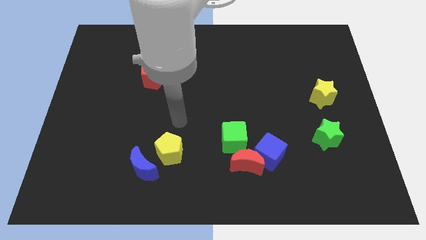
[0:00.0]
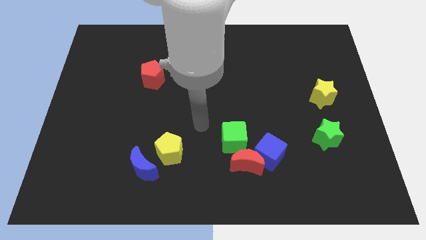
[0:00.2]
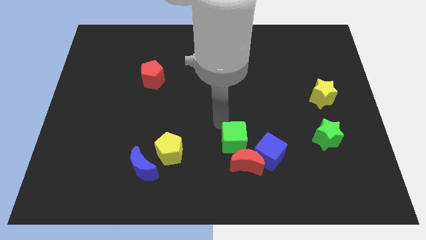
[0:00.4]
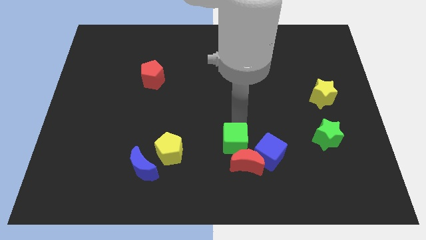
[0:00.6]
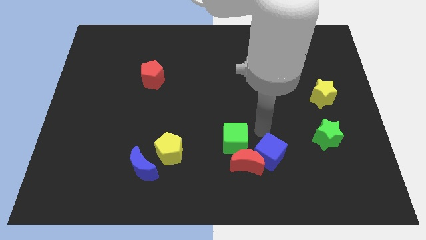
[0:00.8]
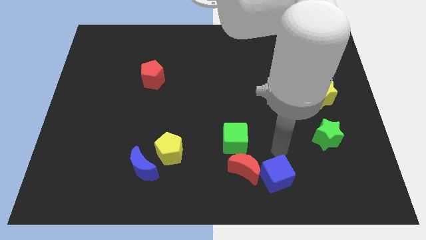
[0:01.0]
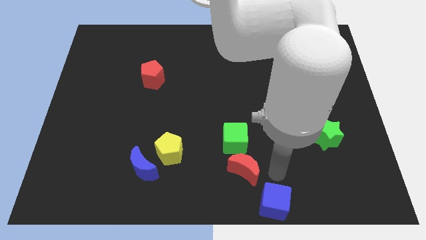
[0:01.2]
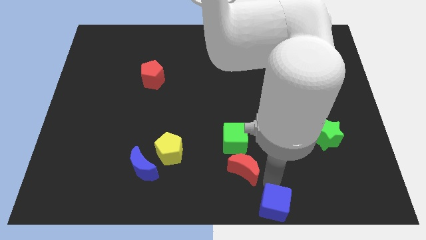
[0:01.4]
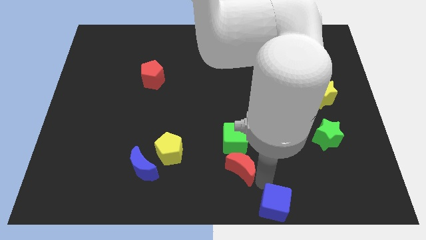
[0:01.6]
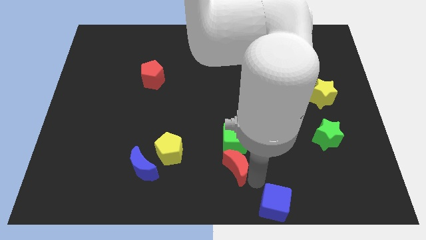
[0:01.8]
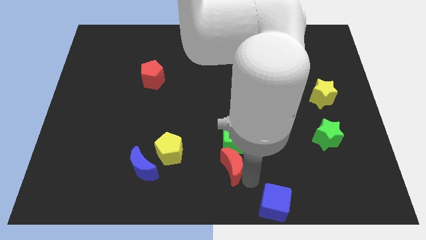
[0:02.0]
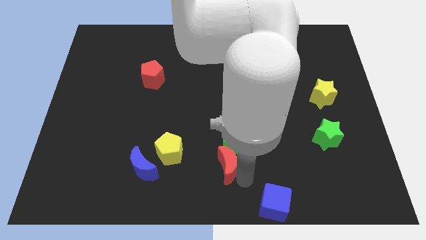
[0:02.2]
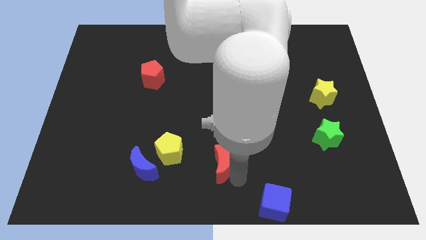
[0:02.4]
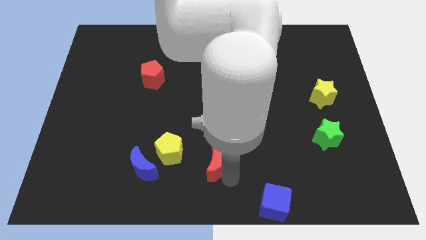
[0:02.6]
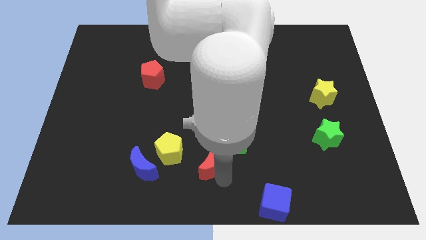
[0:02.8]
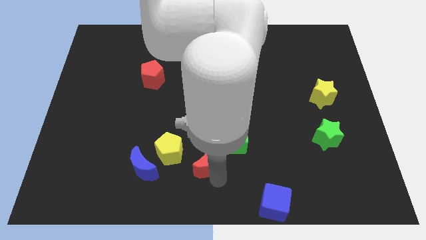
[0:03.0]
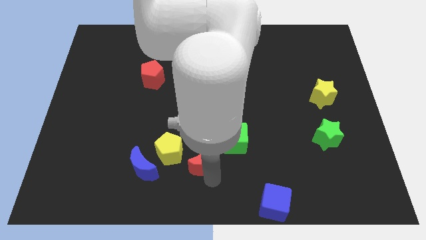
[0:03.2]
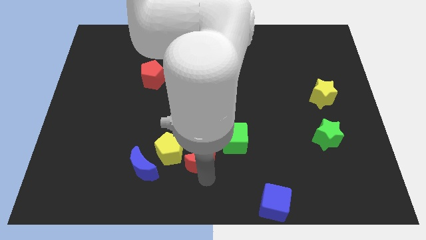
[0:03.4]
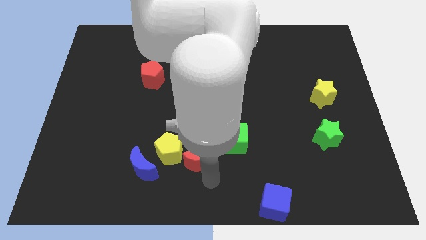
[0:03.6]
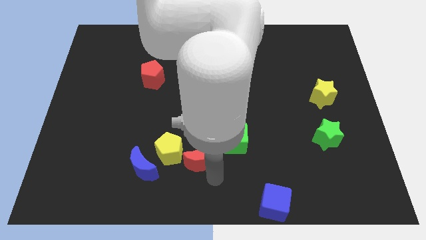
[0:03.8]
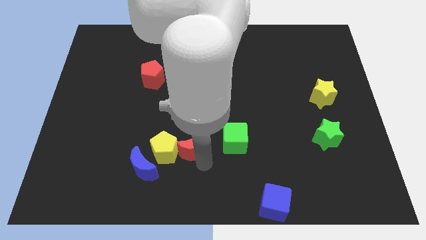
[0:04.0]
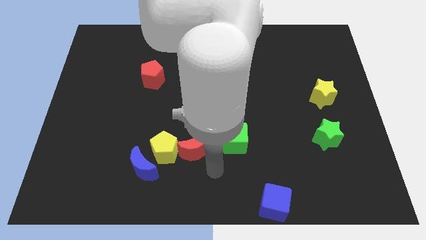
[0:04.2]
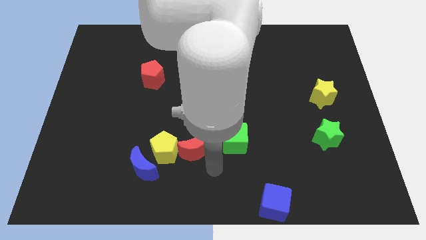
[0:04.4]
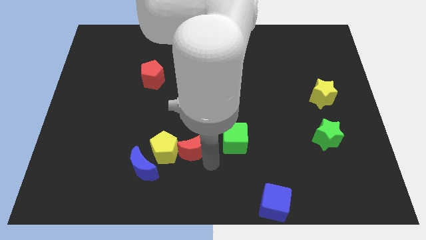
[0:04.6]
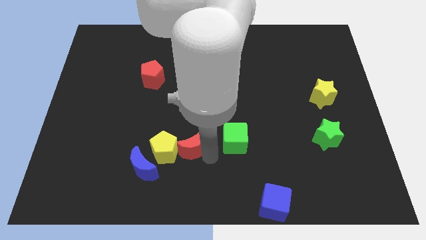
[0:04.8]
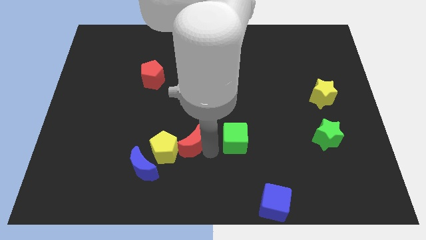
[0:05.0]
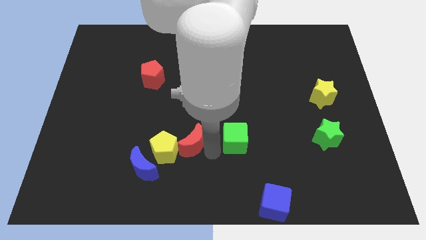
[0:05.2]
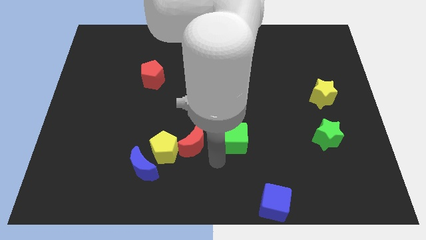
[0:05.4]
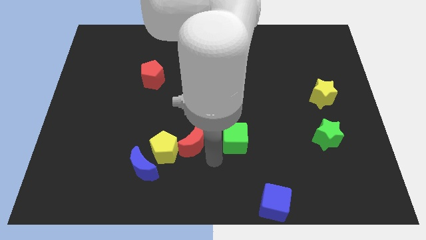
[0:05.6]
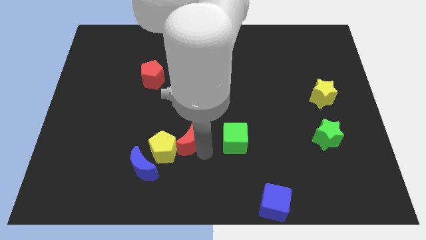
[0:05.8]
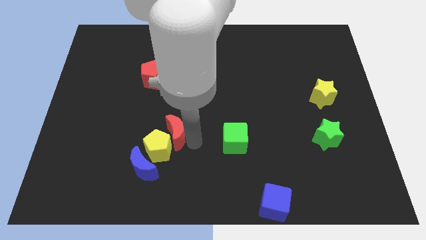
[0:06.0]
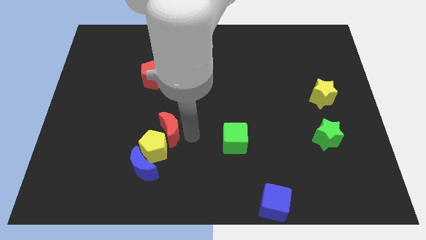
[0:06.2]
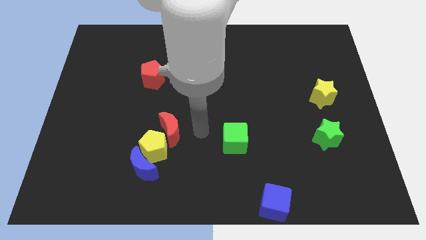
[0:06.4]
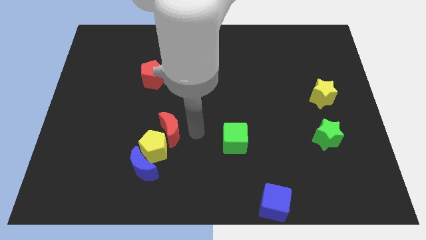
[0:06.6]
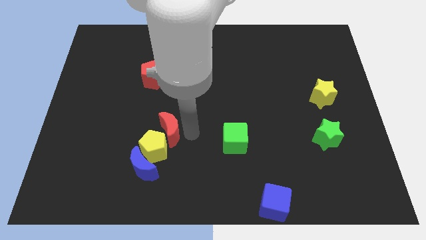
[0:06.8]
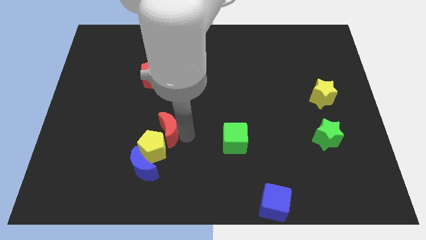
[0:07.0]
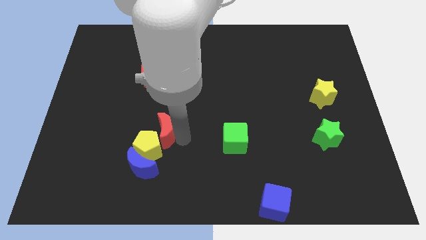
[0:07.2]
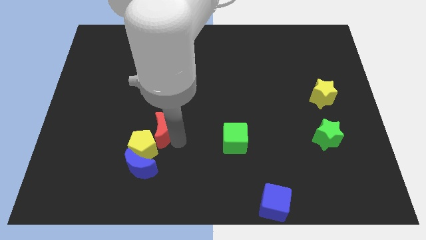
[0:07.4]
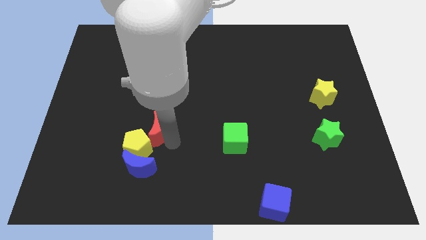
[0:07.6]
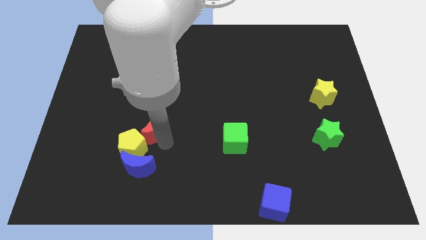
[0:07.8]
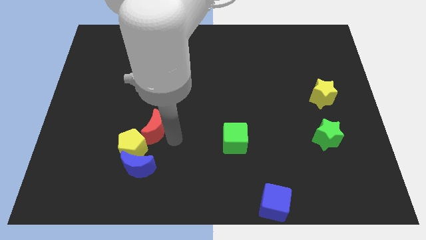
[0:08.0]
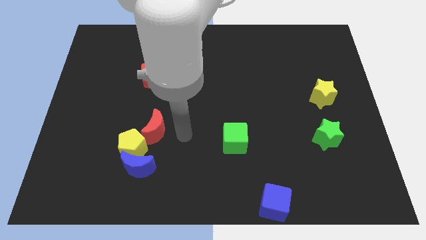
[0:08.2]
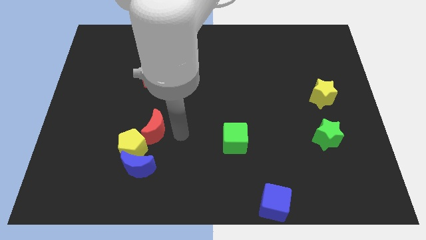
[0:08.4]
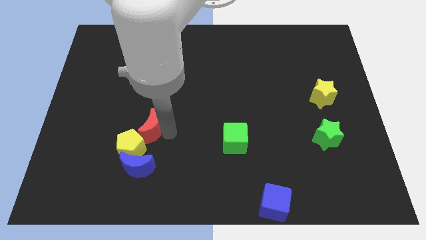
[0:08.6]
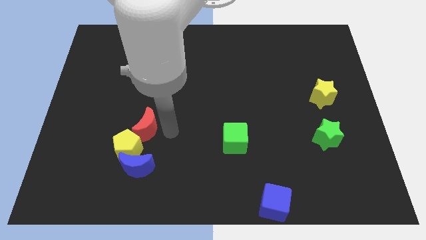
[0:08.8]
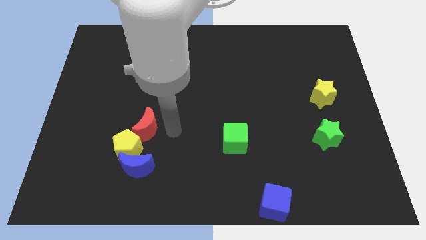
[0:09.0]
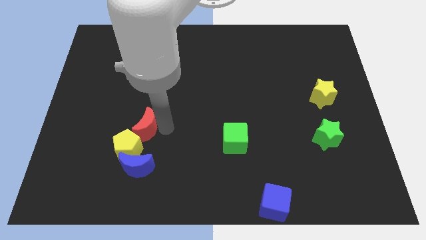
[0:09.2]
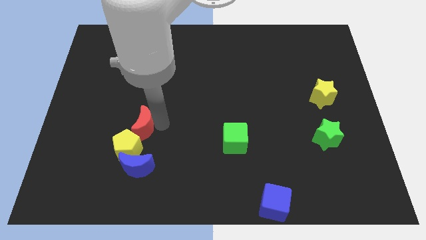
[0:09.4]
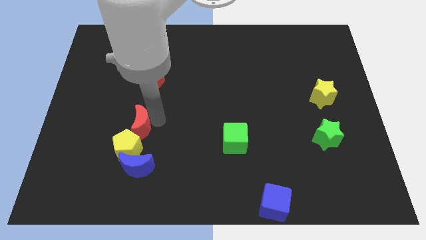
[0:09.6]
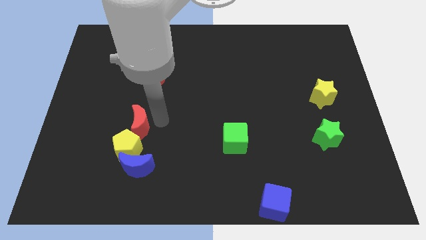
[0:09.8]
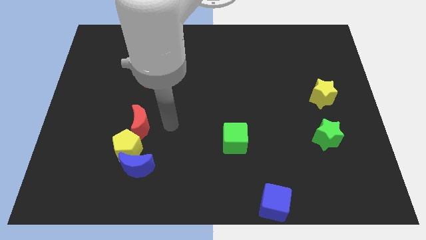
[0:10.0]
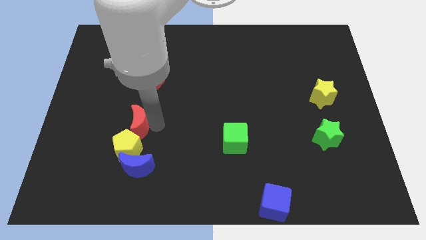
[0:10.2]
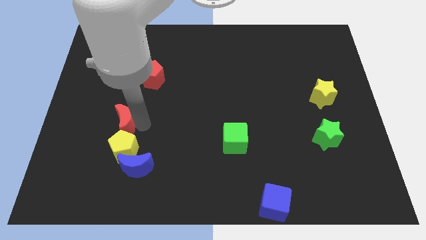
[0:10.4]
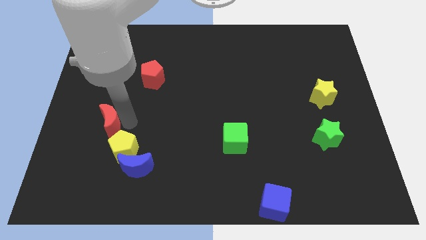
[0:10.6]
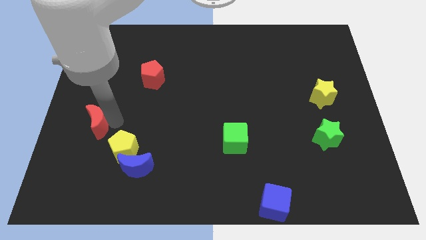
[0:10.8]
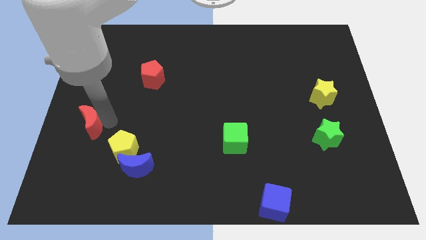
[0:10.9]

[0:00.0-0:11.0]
slide the red moon to the center left

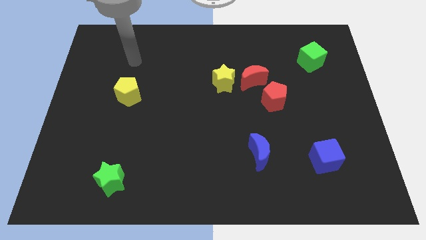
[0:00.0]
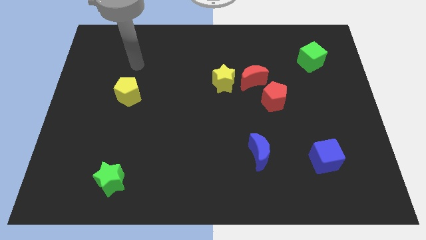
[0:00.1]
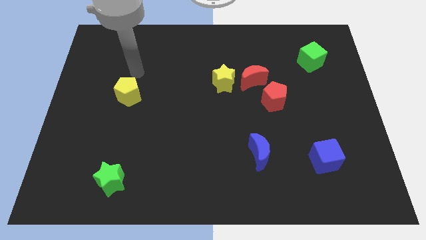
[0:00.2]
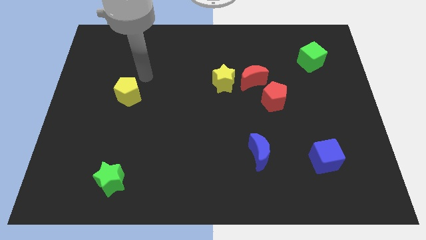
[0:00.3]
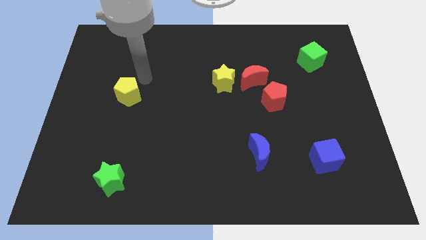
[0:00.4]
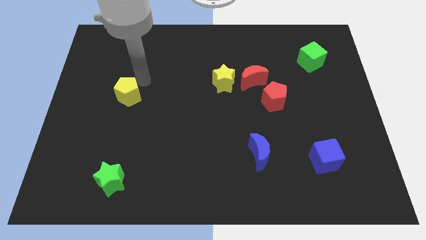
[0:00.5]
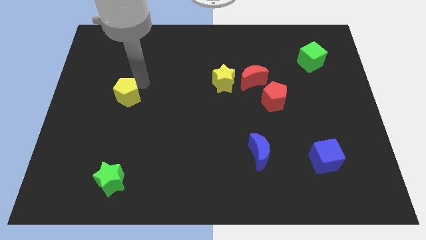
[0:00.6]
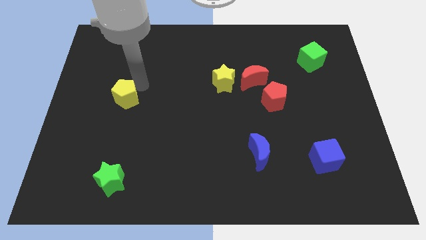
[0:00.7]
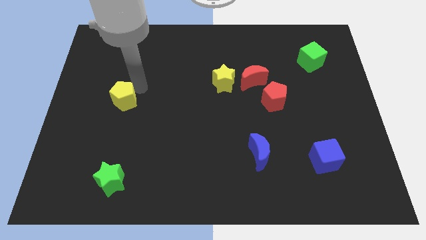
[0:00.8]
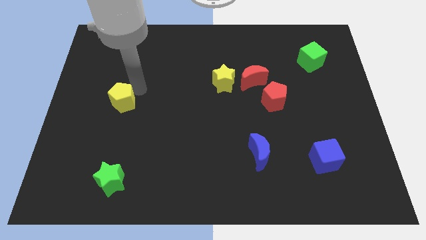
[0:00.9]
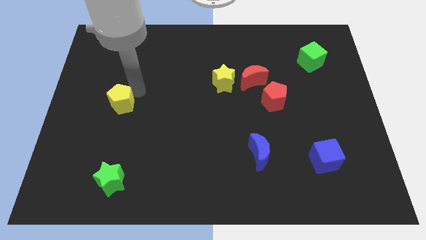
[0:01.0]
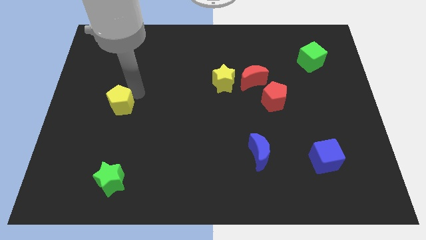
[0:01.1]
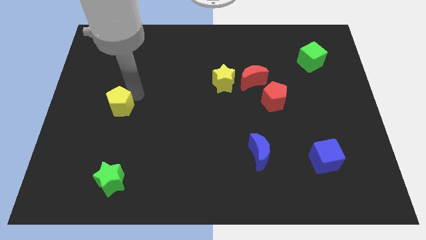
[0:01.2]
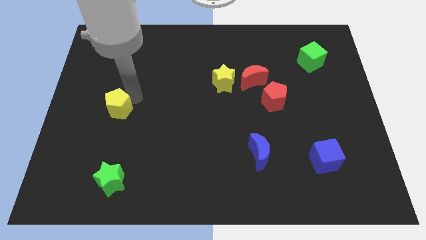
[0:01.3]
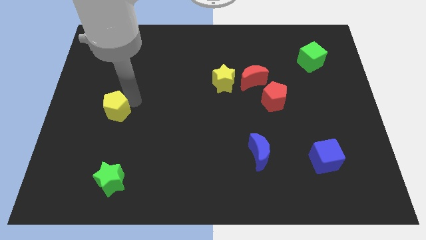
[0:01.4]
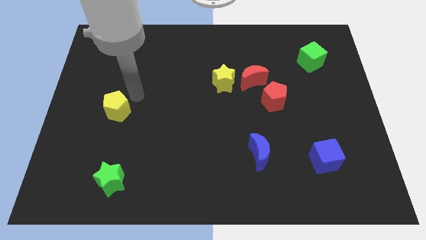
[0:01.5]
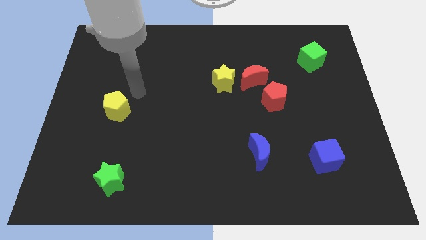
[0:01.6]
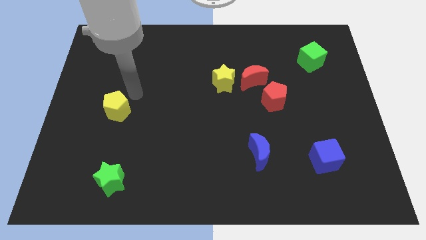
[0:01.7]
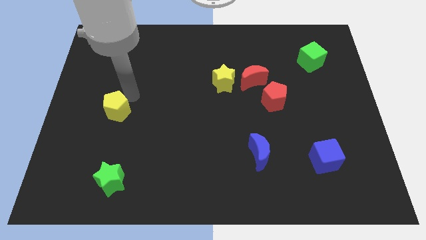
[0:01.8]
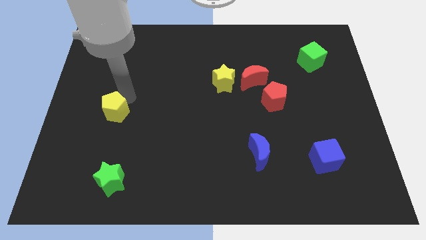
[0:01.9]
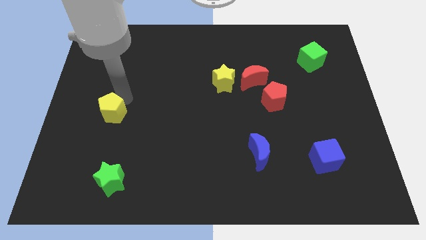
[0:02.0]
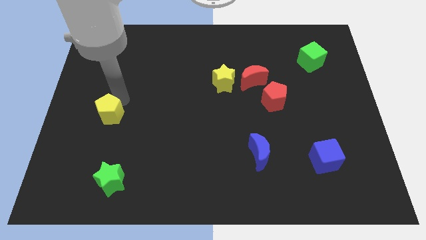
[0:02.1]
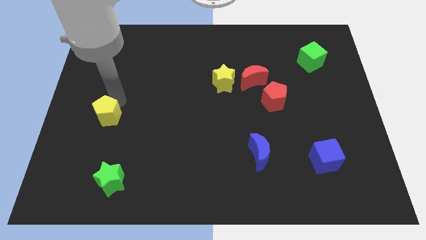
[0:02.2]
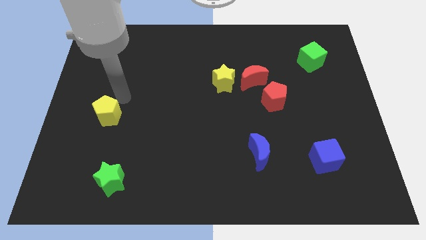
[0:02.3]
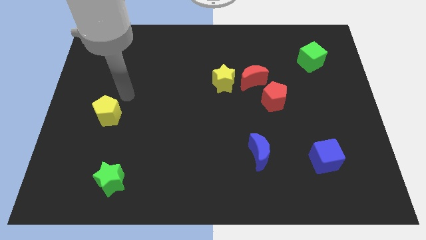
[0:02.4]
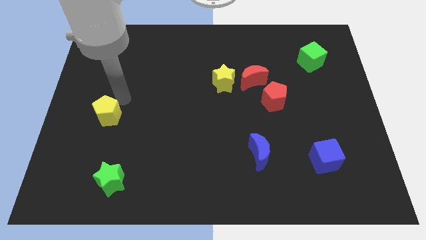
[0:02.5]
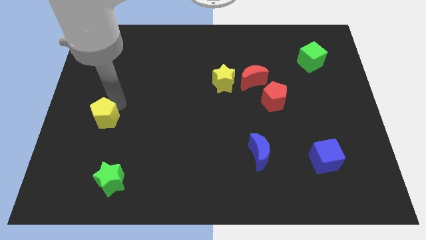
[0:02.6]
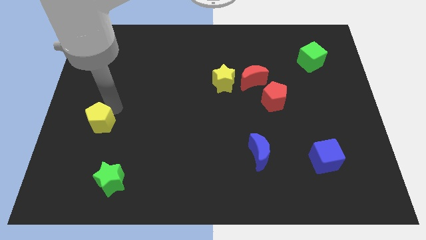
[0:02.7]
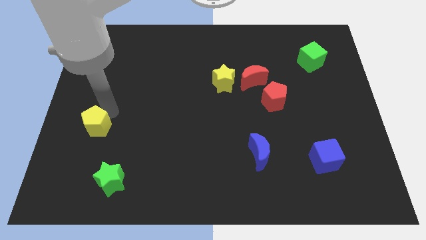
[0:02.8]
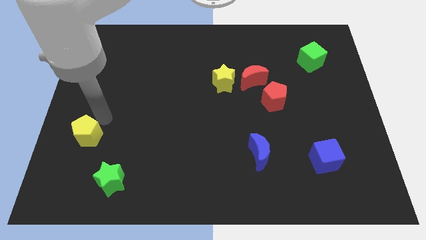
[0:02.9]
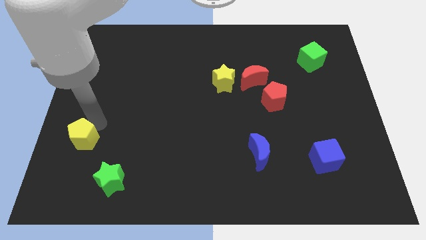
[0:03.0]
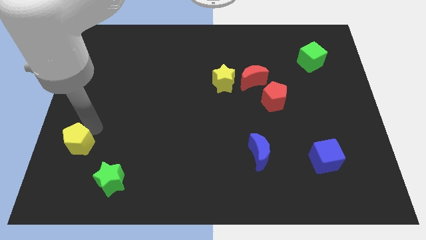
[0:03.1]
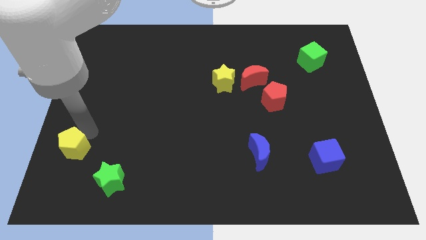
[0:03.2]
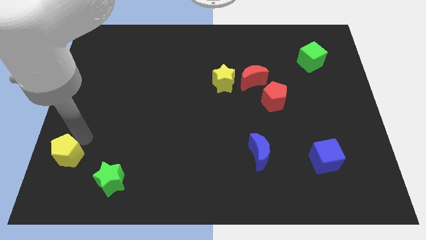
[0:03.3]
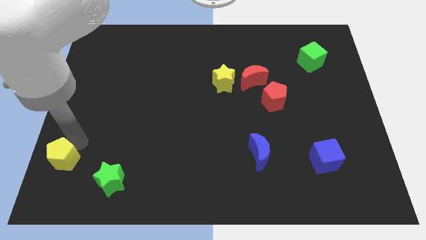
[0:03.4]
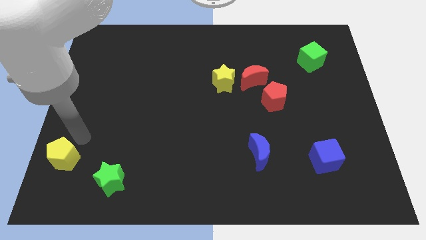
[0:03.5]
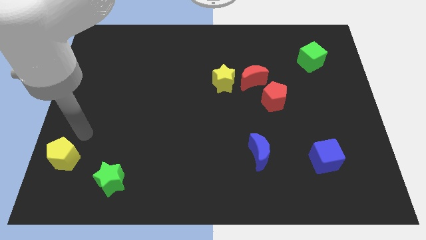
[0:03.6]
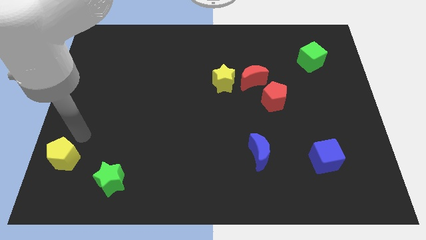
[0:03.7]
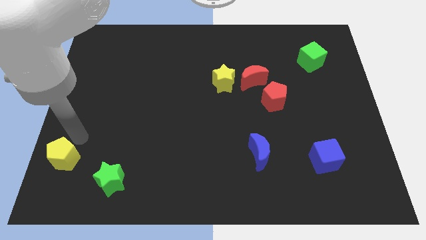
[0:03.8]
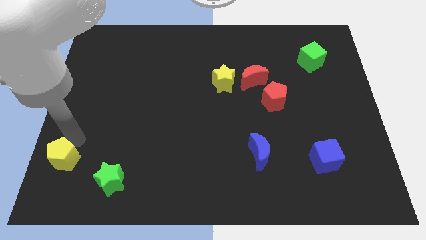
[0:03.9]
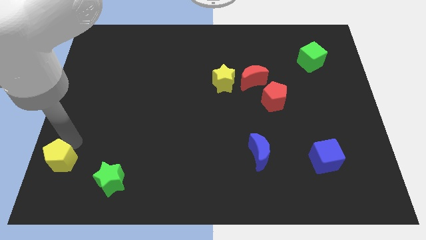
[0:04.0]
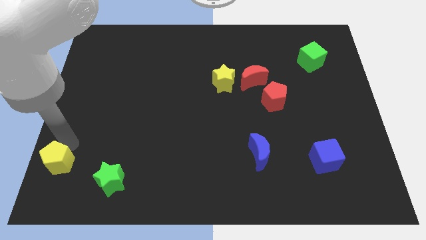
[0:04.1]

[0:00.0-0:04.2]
slide the yellow pentagon to the lower left corner
